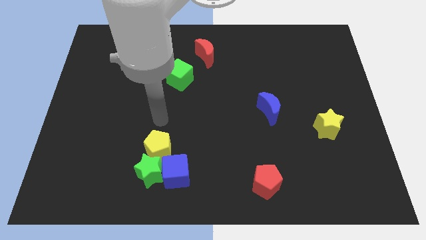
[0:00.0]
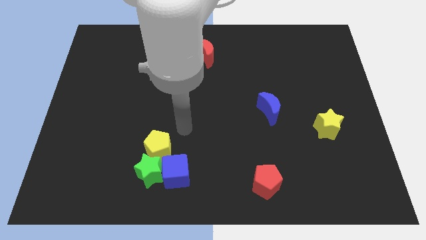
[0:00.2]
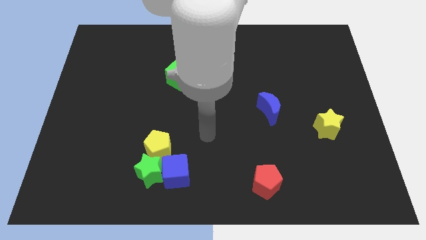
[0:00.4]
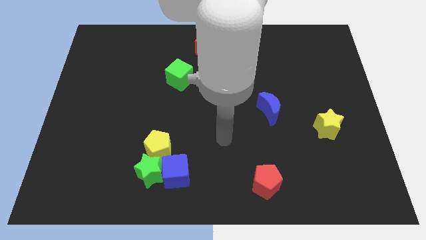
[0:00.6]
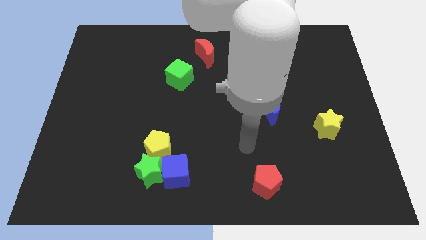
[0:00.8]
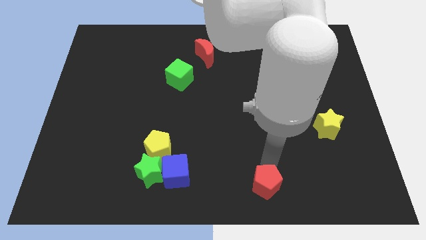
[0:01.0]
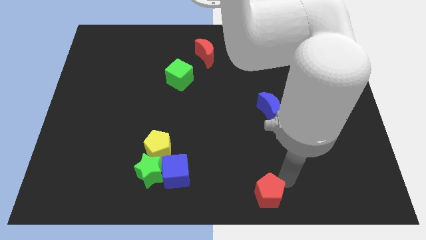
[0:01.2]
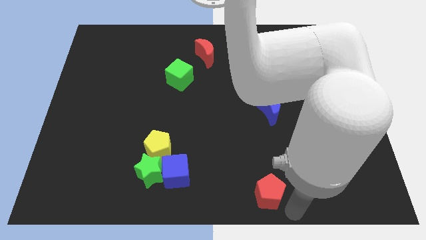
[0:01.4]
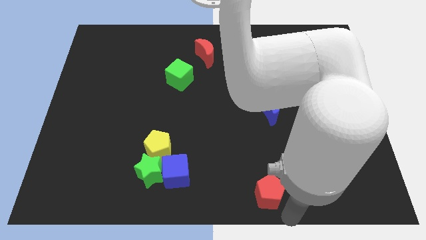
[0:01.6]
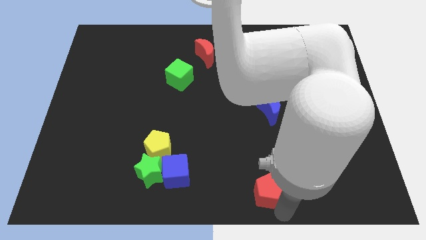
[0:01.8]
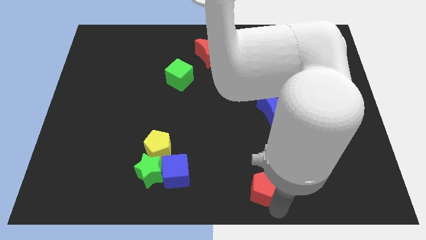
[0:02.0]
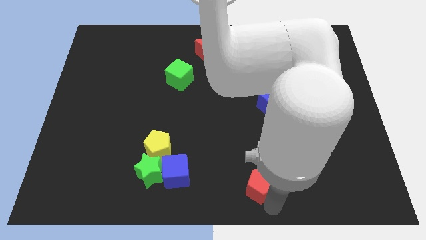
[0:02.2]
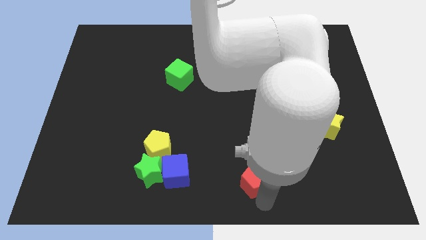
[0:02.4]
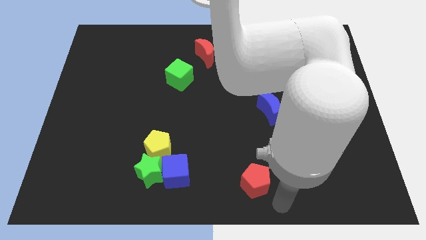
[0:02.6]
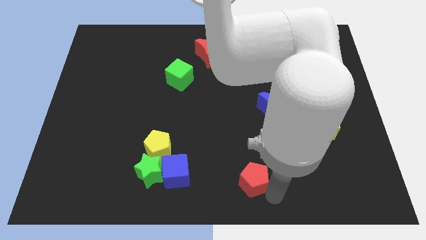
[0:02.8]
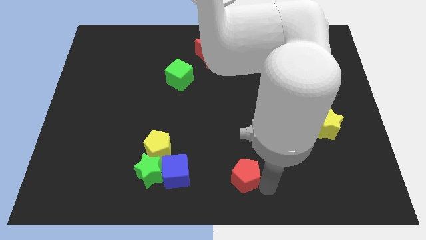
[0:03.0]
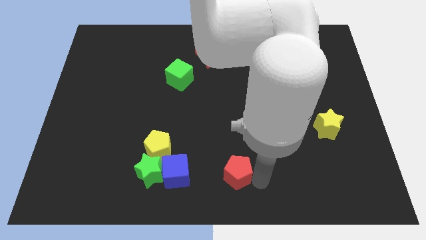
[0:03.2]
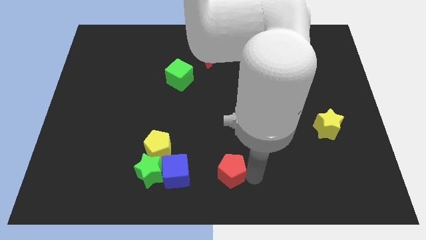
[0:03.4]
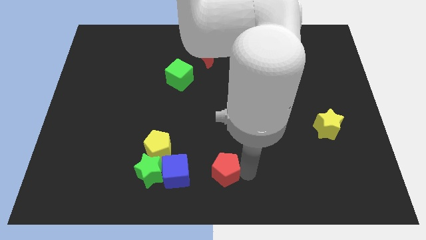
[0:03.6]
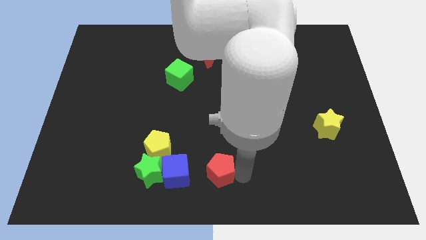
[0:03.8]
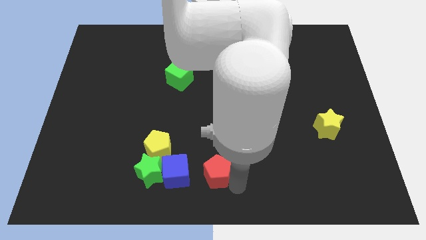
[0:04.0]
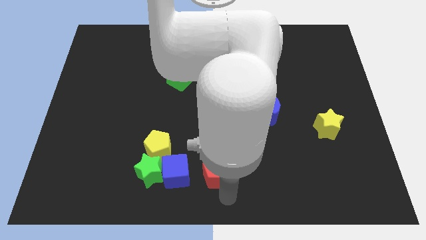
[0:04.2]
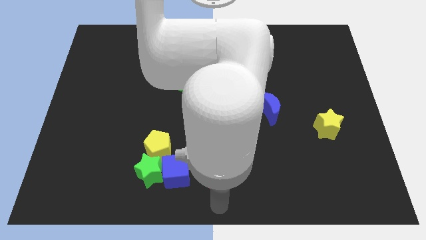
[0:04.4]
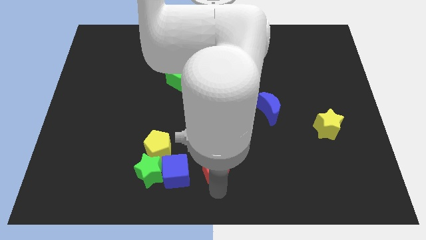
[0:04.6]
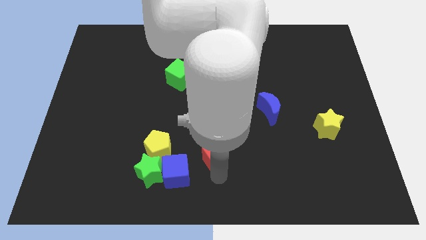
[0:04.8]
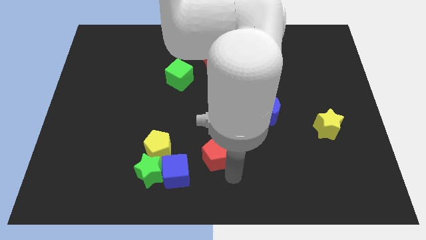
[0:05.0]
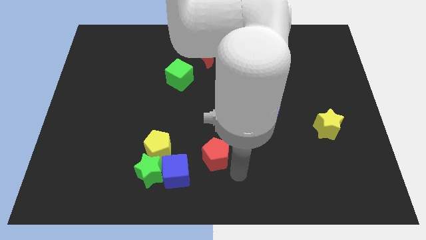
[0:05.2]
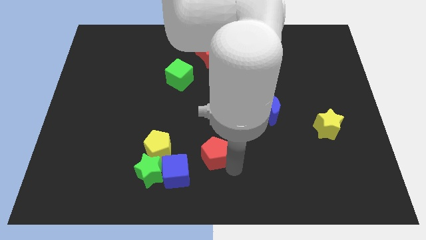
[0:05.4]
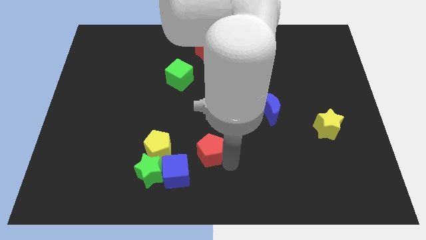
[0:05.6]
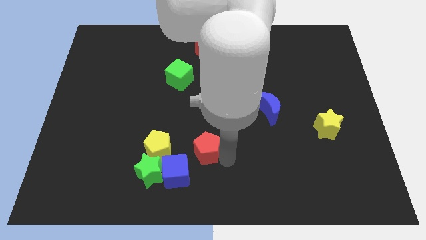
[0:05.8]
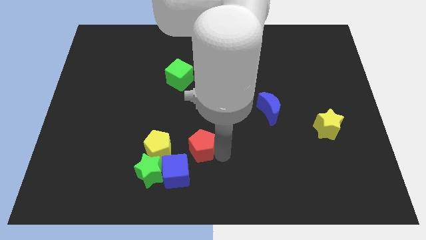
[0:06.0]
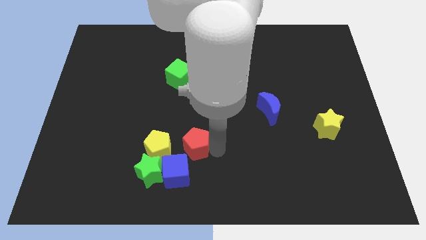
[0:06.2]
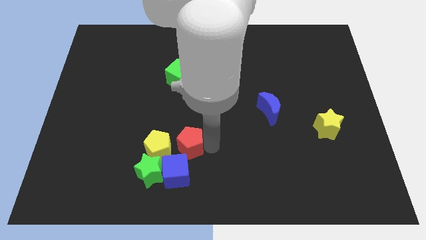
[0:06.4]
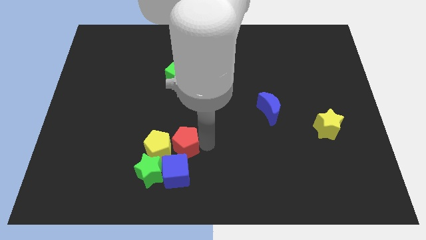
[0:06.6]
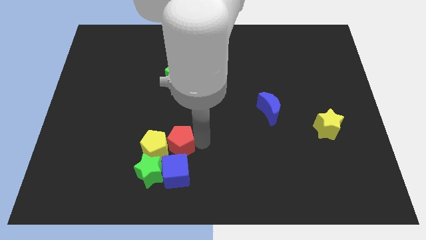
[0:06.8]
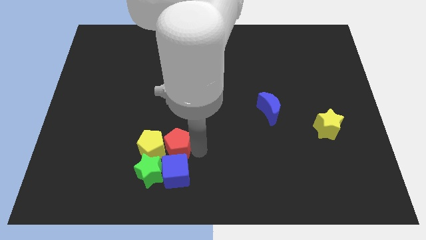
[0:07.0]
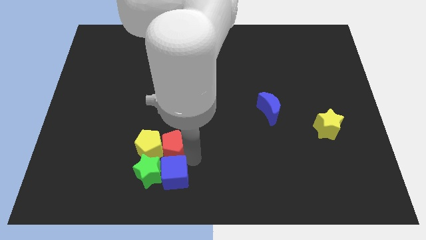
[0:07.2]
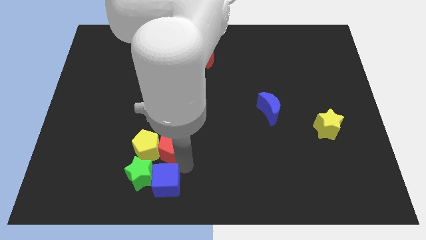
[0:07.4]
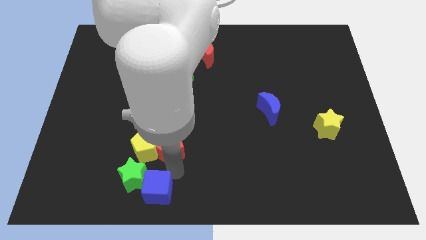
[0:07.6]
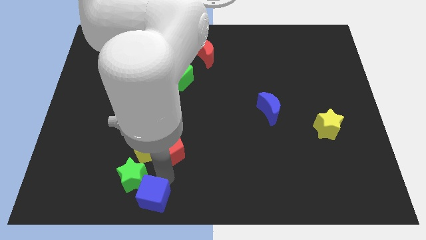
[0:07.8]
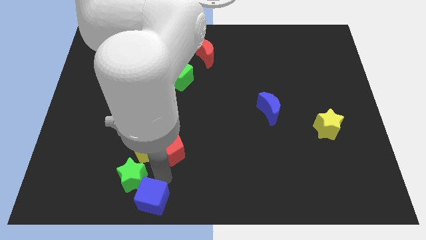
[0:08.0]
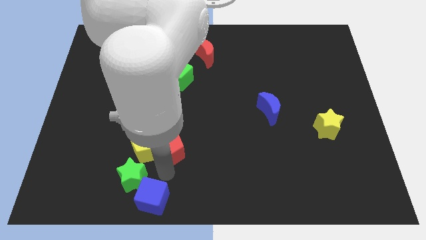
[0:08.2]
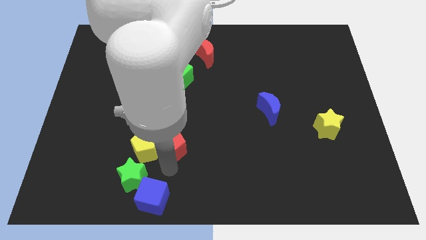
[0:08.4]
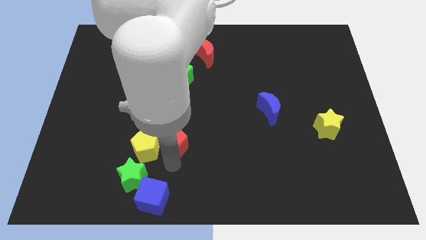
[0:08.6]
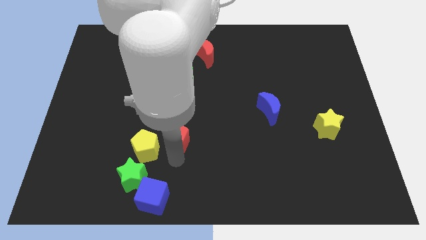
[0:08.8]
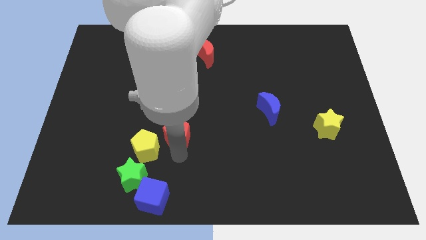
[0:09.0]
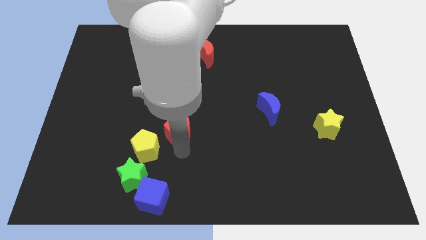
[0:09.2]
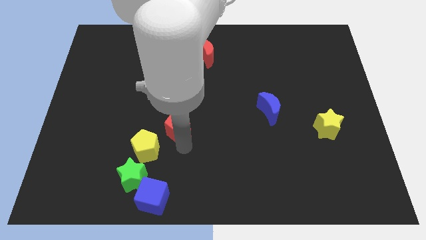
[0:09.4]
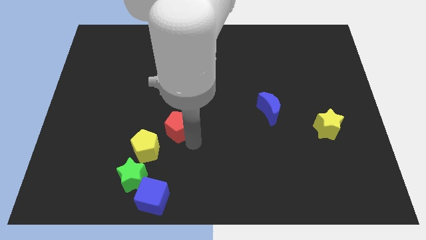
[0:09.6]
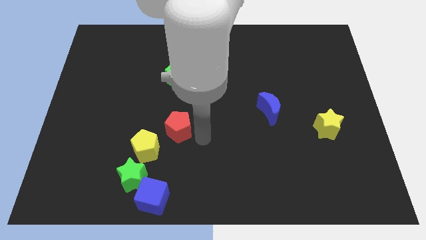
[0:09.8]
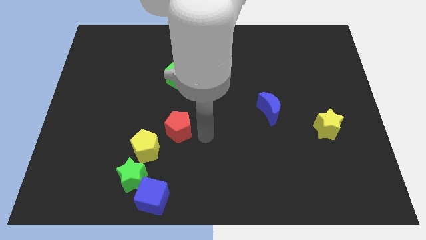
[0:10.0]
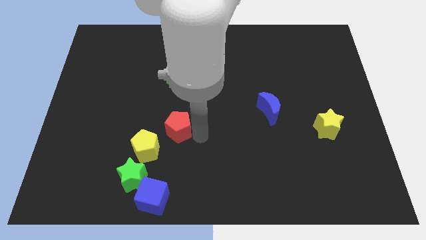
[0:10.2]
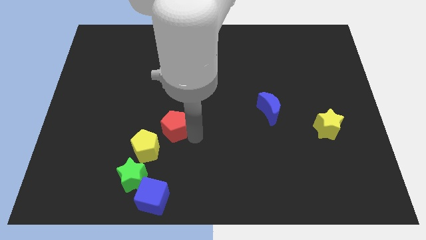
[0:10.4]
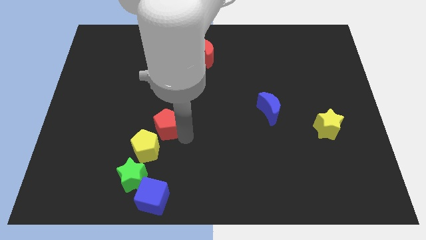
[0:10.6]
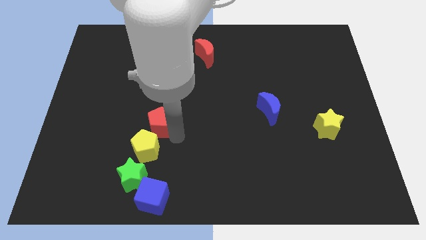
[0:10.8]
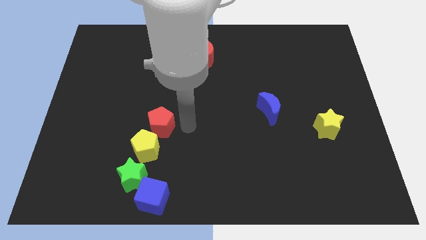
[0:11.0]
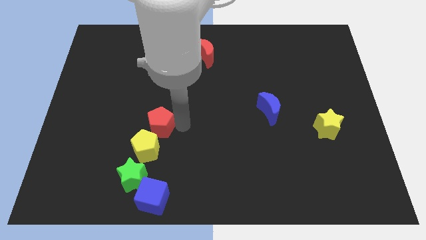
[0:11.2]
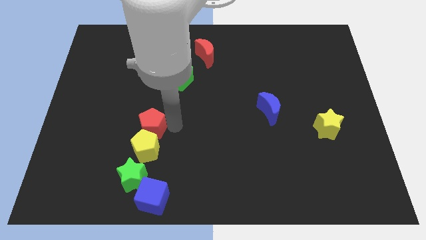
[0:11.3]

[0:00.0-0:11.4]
move the red pentagon to the top left side of the yellow pentagon

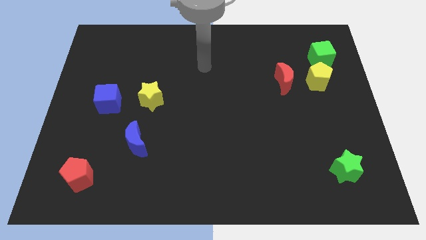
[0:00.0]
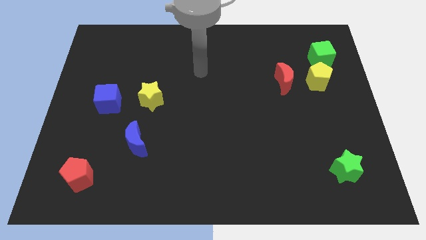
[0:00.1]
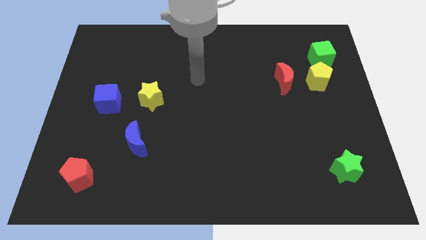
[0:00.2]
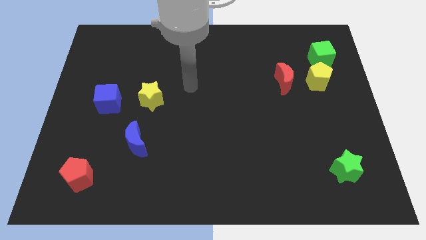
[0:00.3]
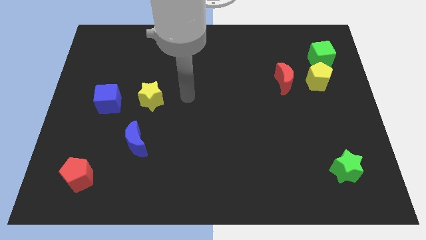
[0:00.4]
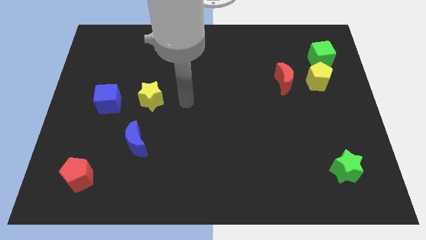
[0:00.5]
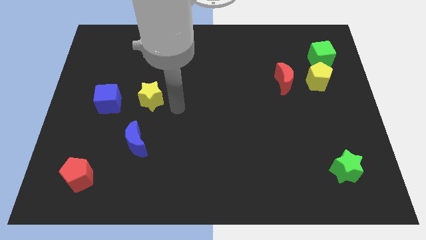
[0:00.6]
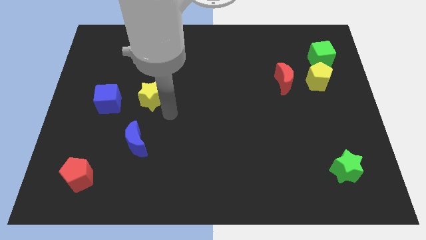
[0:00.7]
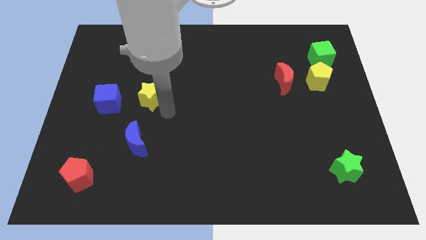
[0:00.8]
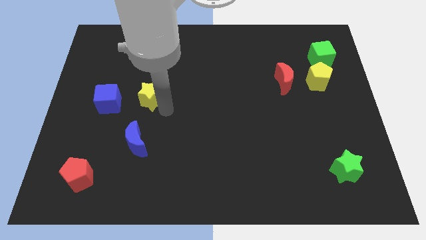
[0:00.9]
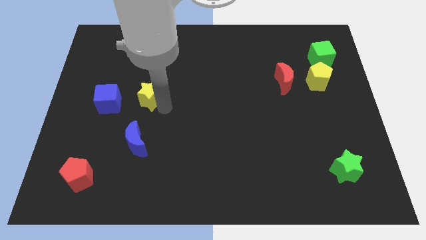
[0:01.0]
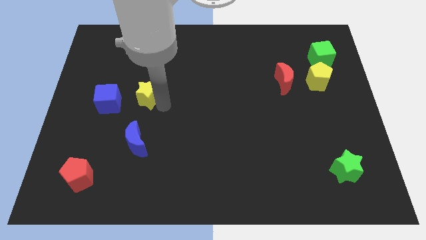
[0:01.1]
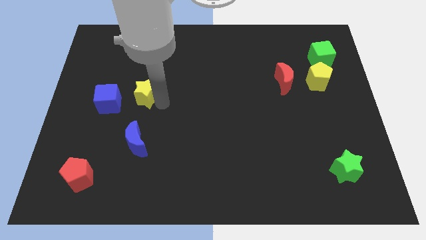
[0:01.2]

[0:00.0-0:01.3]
move the yellow star to the top right of the blue cube
